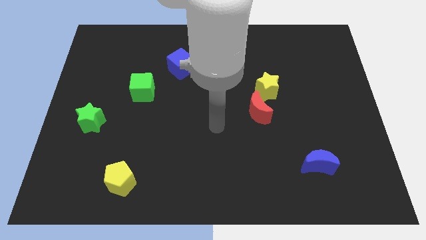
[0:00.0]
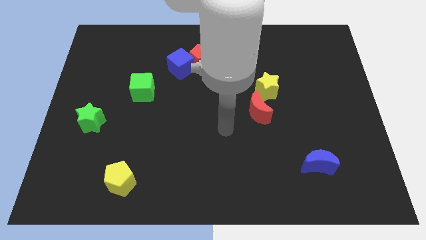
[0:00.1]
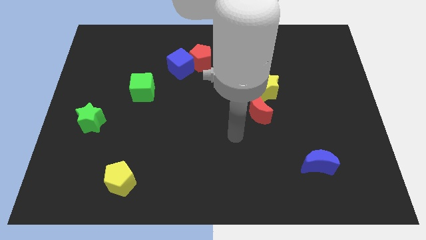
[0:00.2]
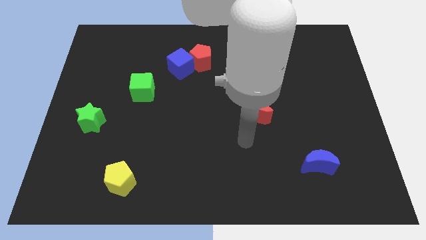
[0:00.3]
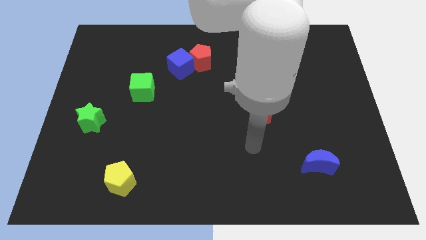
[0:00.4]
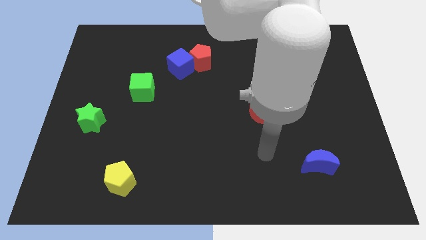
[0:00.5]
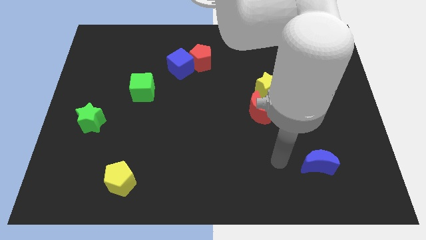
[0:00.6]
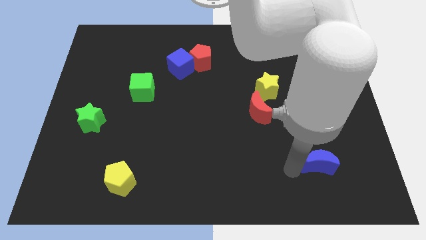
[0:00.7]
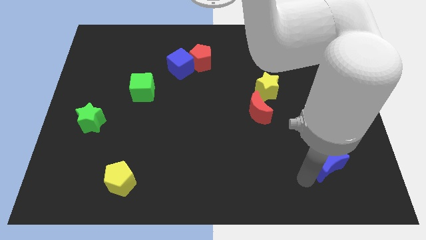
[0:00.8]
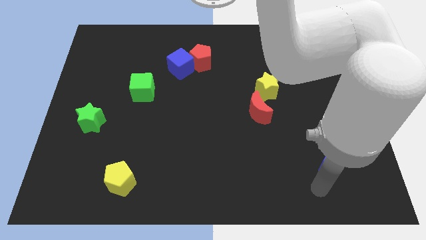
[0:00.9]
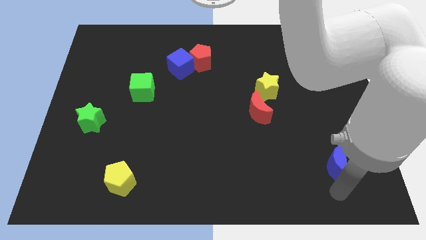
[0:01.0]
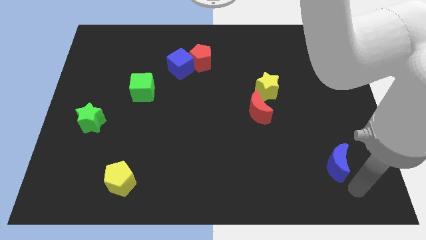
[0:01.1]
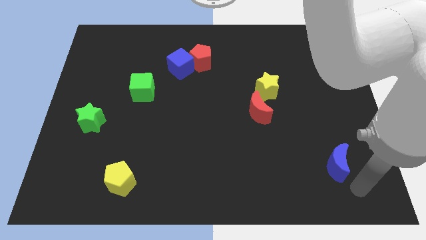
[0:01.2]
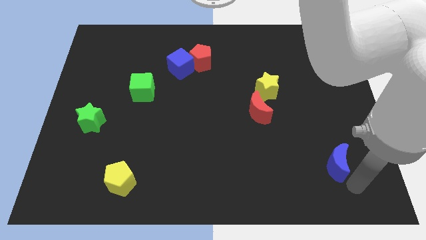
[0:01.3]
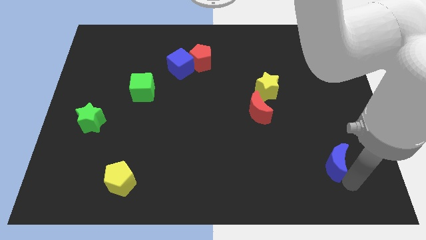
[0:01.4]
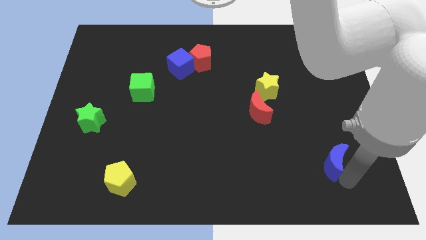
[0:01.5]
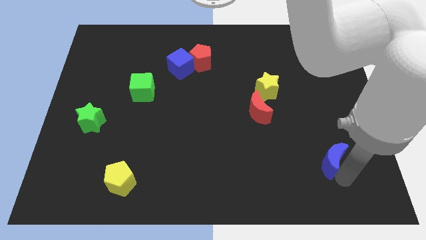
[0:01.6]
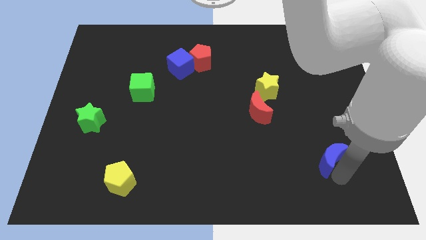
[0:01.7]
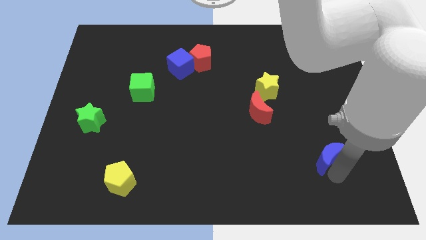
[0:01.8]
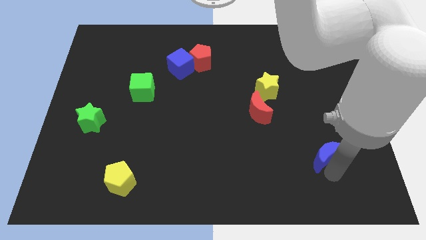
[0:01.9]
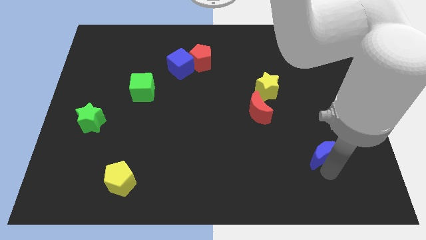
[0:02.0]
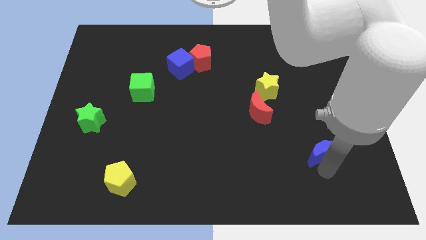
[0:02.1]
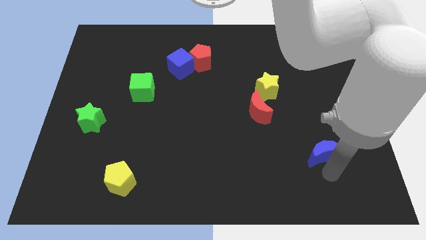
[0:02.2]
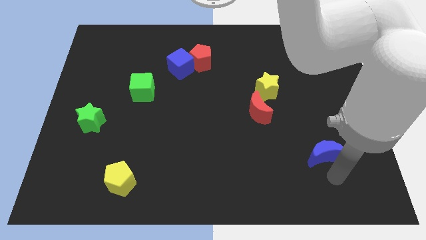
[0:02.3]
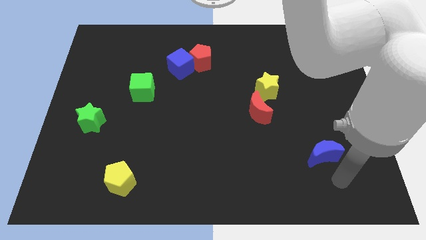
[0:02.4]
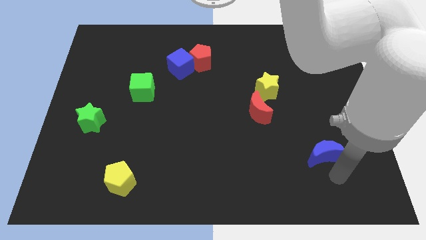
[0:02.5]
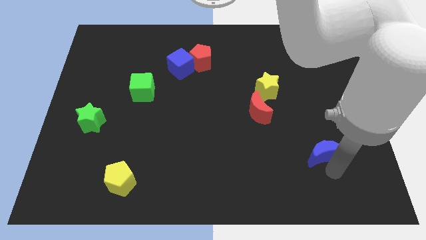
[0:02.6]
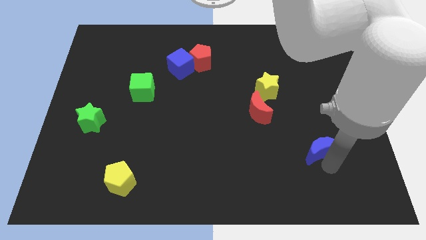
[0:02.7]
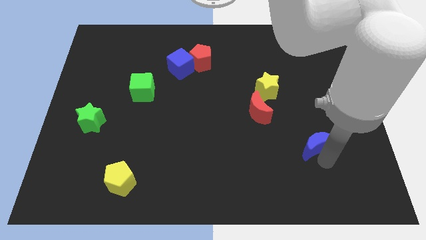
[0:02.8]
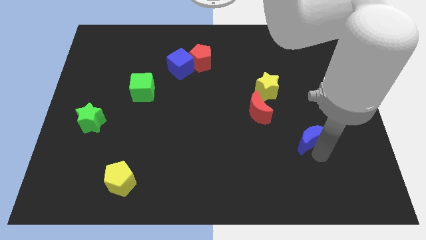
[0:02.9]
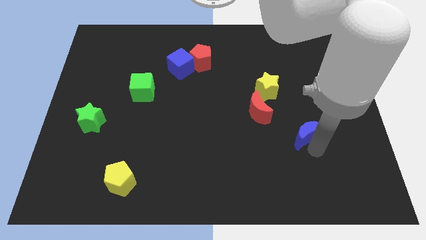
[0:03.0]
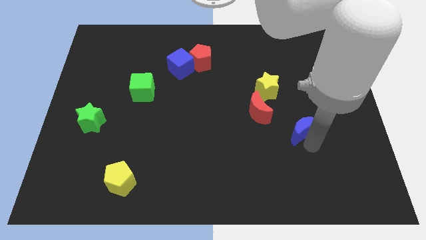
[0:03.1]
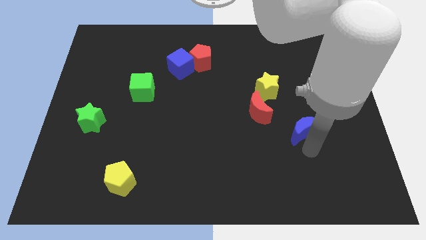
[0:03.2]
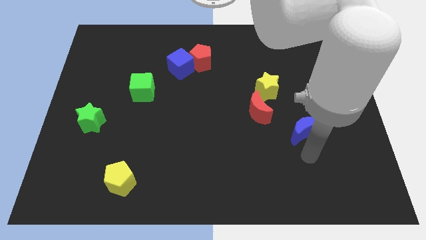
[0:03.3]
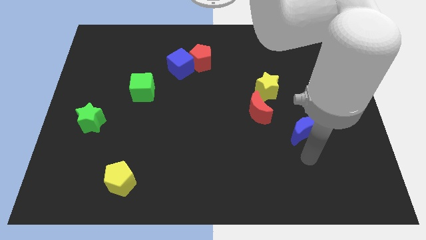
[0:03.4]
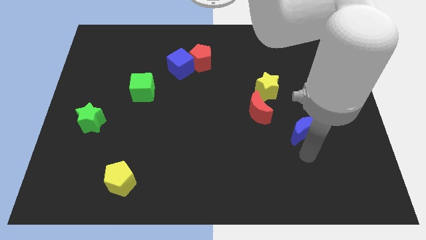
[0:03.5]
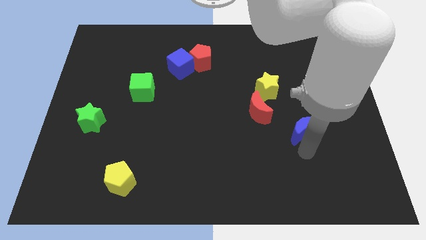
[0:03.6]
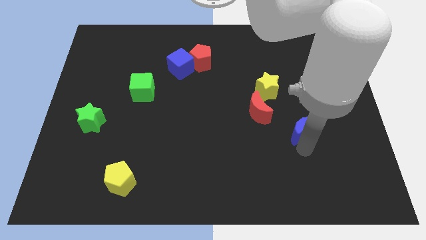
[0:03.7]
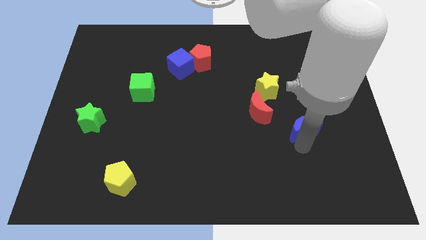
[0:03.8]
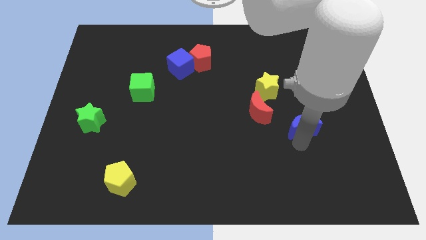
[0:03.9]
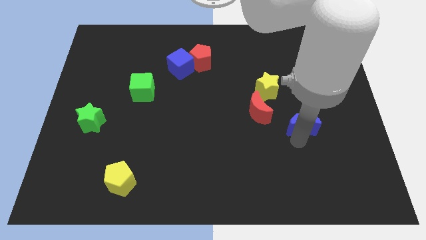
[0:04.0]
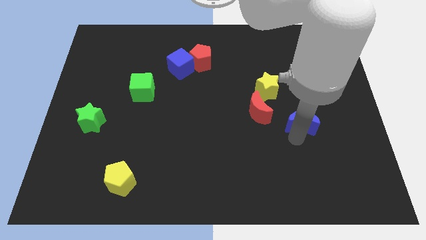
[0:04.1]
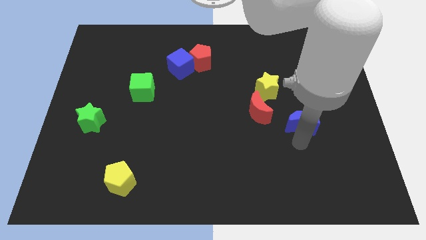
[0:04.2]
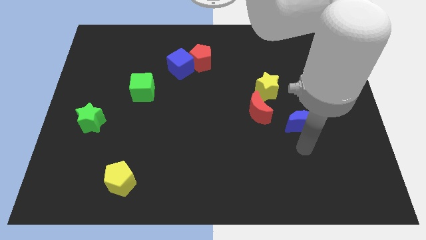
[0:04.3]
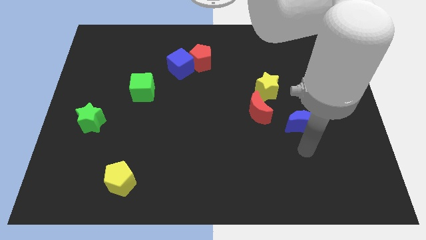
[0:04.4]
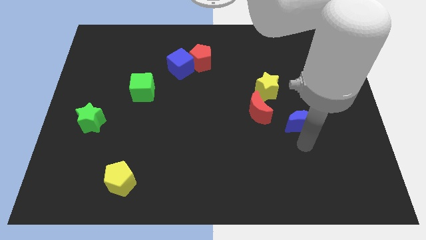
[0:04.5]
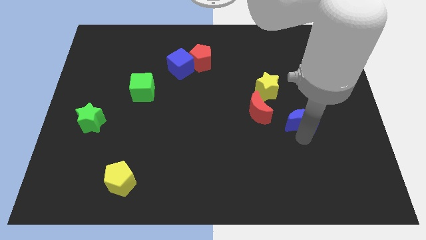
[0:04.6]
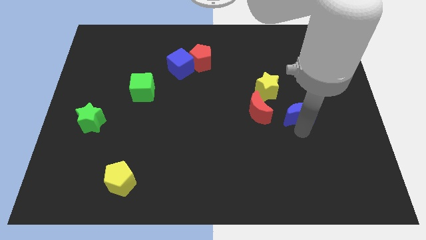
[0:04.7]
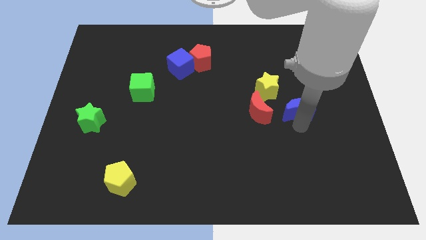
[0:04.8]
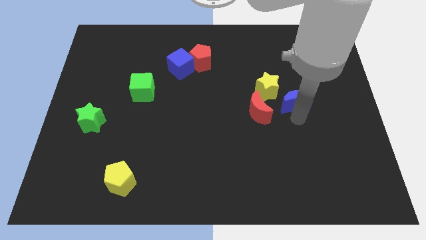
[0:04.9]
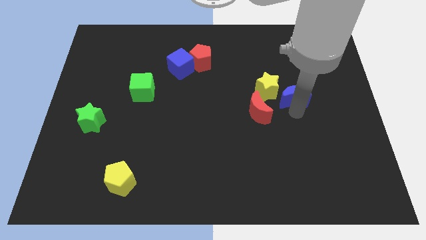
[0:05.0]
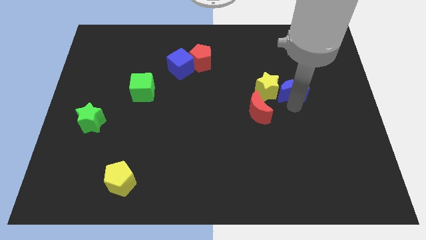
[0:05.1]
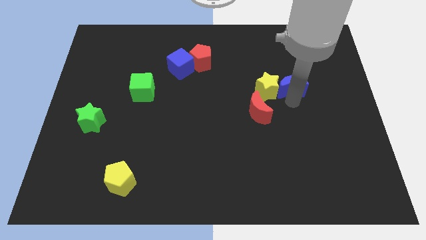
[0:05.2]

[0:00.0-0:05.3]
move the blue moon up

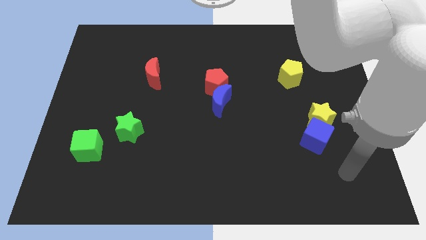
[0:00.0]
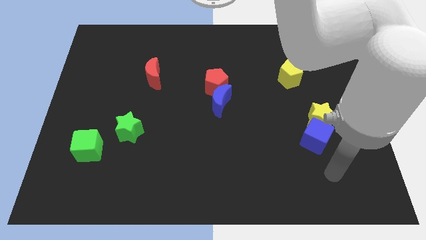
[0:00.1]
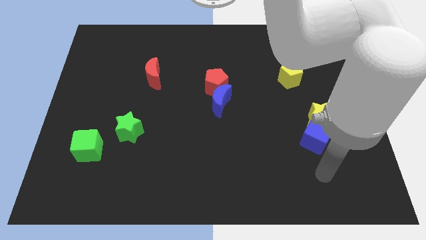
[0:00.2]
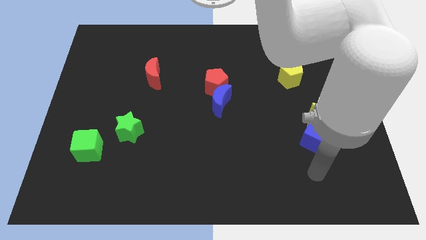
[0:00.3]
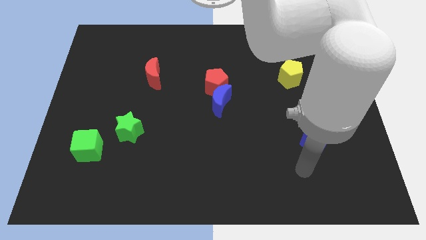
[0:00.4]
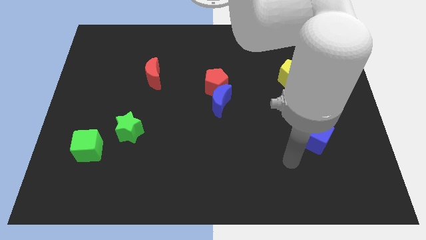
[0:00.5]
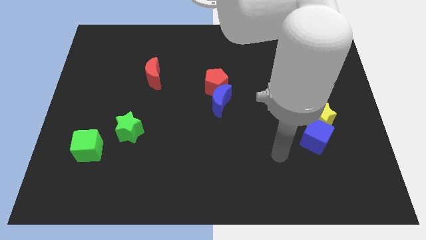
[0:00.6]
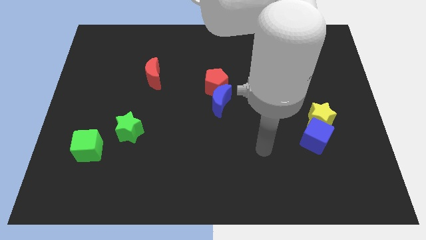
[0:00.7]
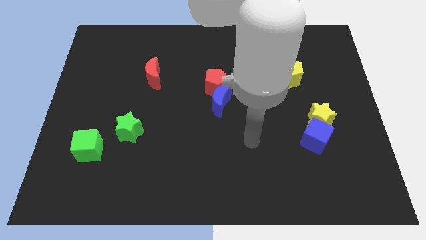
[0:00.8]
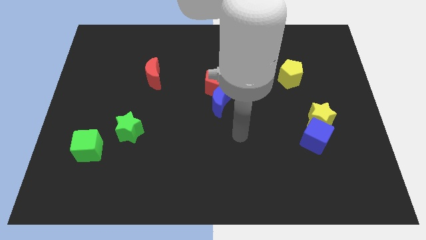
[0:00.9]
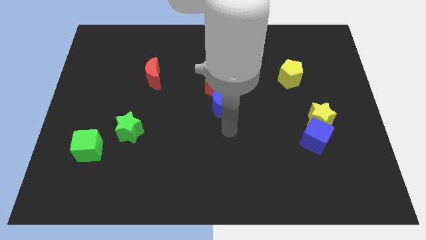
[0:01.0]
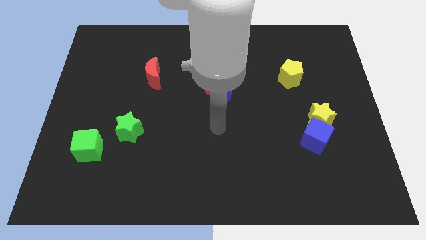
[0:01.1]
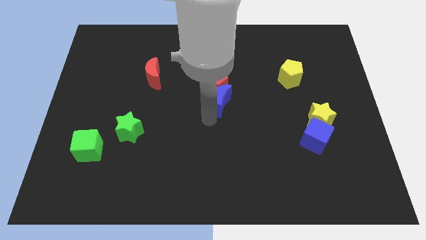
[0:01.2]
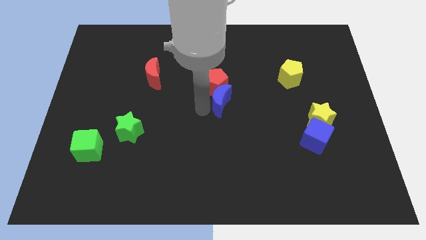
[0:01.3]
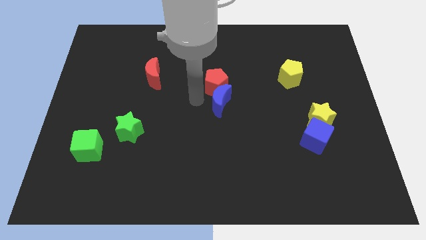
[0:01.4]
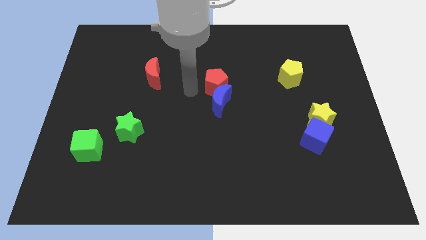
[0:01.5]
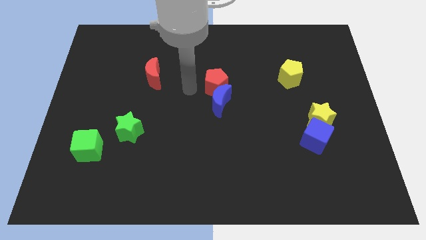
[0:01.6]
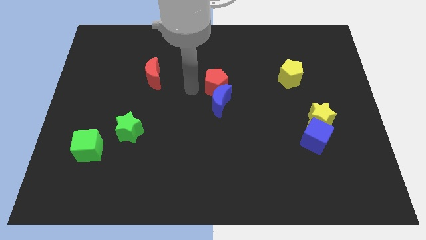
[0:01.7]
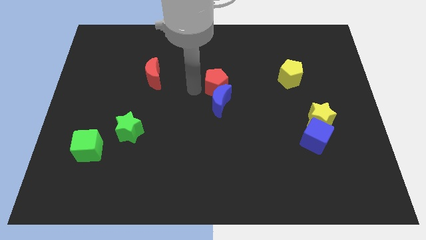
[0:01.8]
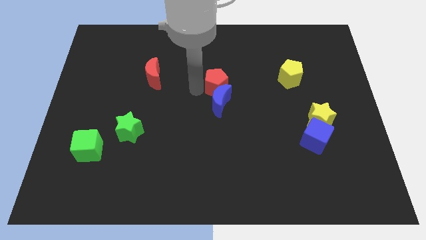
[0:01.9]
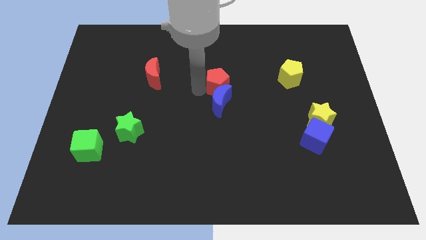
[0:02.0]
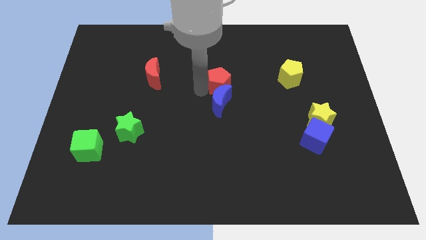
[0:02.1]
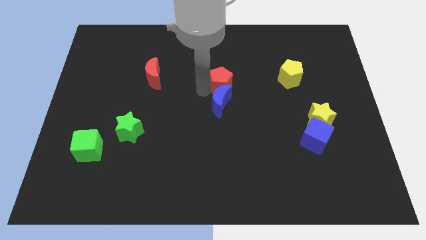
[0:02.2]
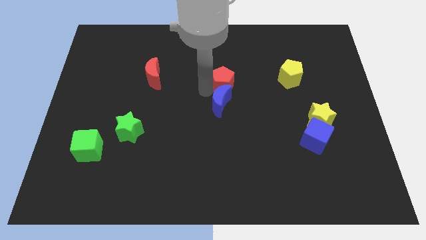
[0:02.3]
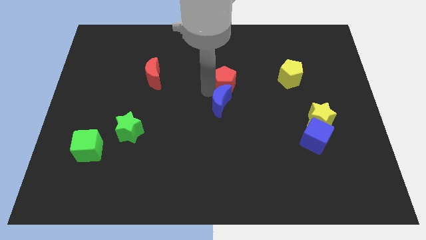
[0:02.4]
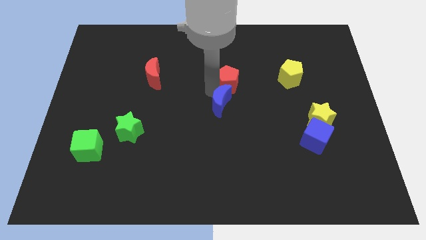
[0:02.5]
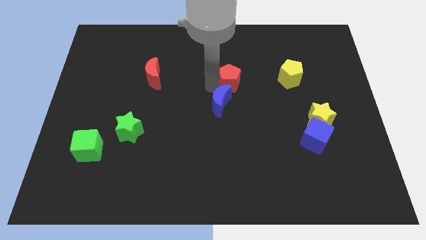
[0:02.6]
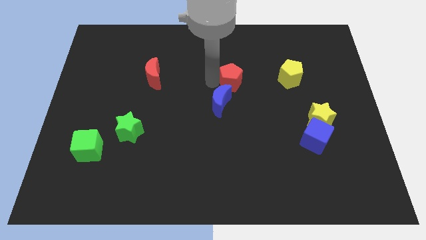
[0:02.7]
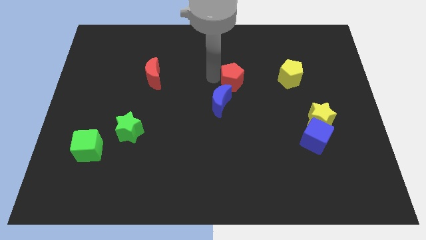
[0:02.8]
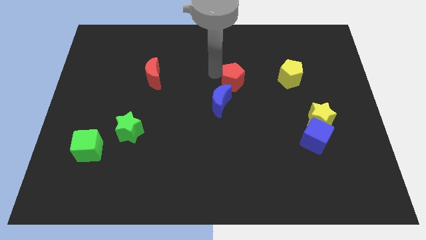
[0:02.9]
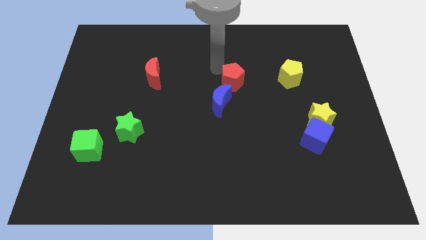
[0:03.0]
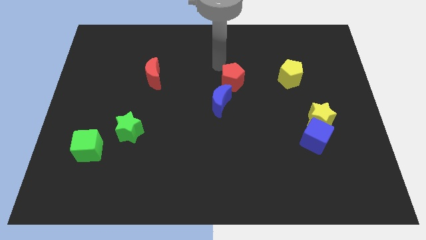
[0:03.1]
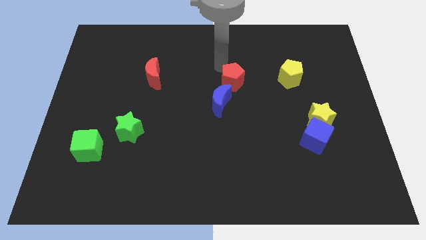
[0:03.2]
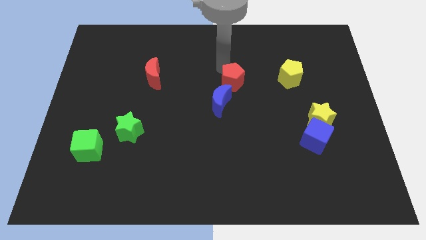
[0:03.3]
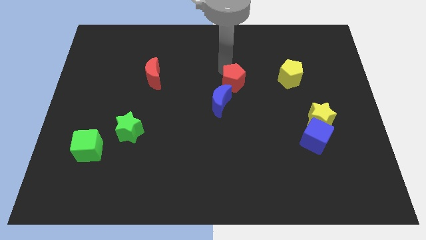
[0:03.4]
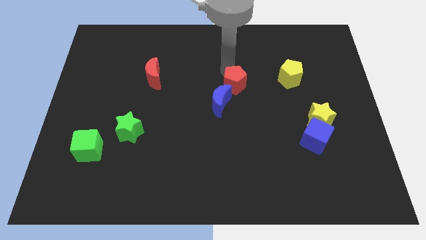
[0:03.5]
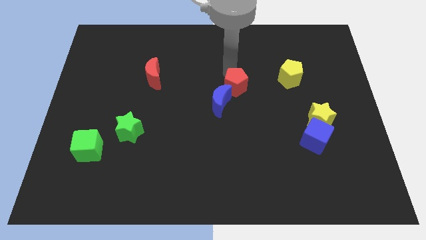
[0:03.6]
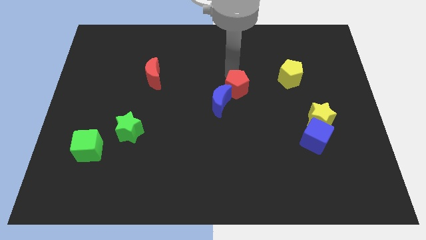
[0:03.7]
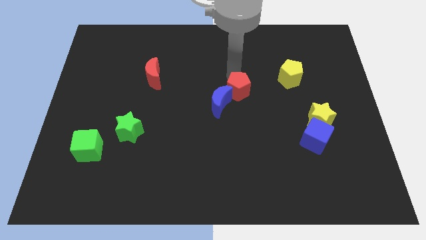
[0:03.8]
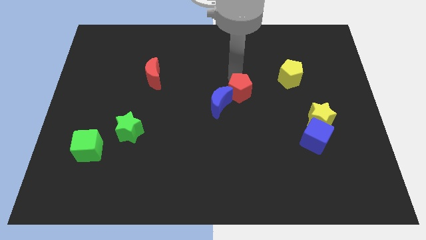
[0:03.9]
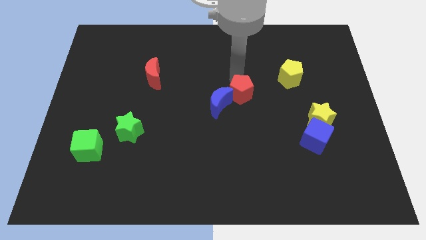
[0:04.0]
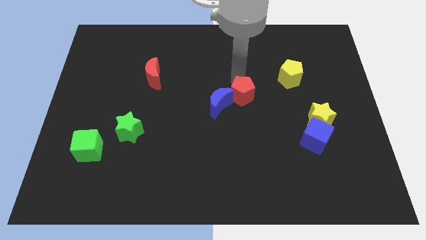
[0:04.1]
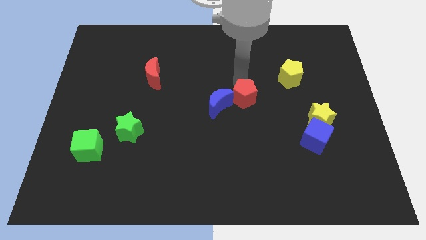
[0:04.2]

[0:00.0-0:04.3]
slide the red pentagon downwards and right somewhat
